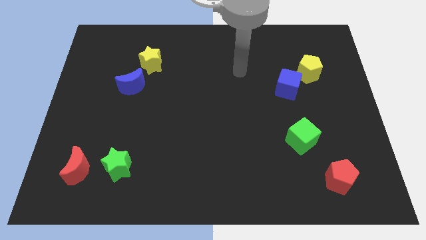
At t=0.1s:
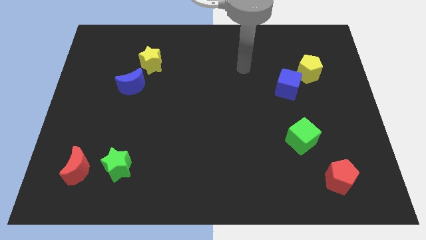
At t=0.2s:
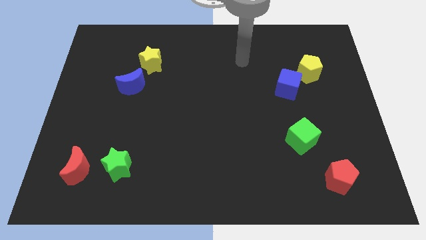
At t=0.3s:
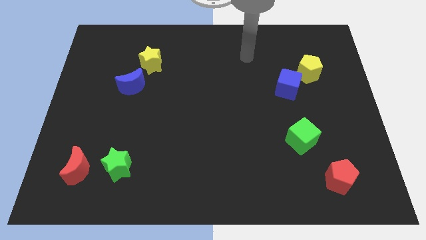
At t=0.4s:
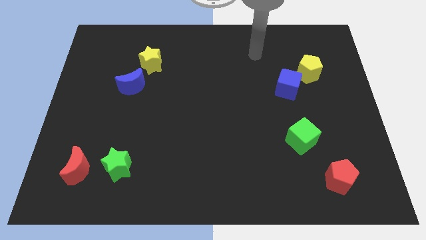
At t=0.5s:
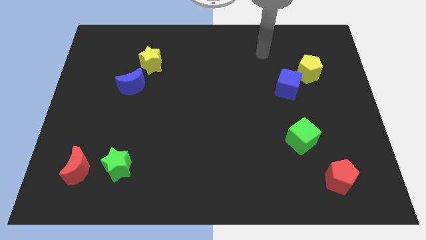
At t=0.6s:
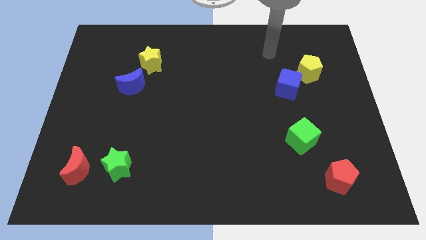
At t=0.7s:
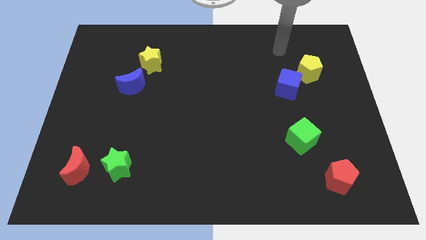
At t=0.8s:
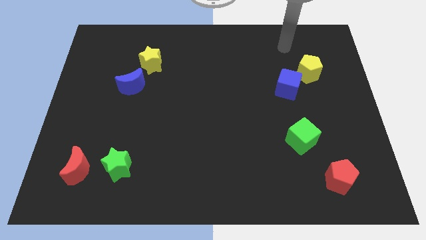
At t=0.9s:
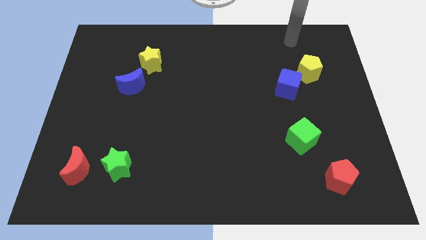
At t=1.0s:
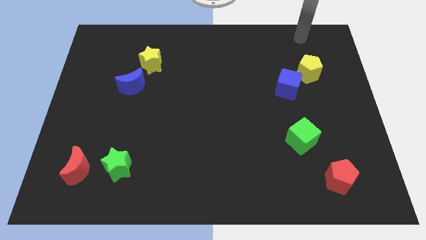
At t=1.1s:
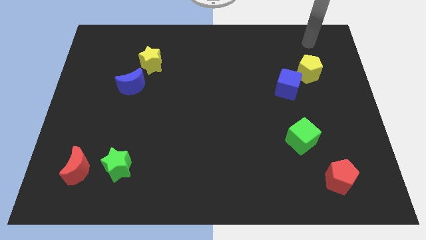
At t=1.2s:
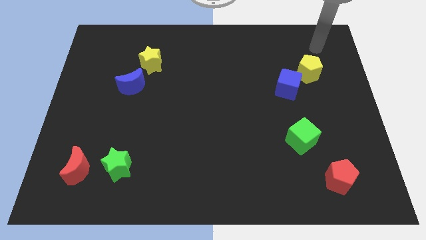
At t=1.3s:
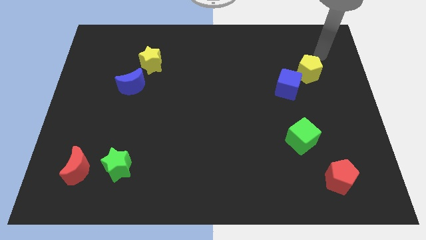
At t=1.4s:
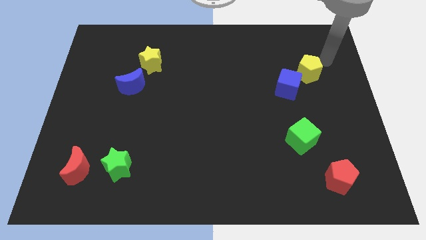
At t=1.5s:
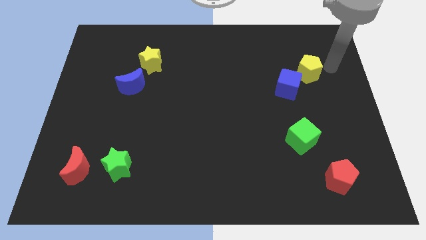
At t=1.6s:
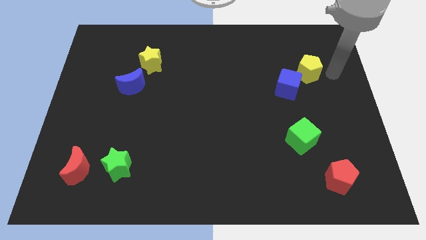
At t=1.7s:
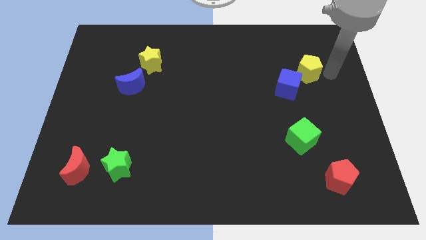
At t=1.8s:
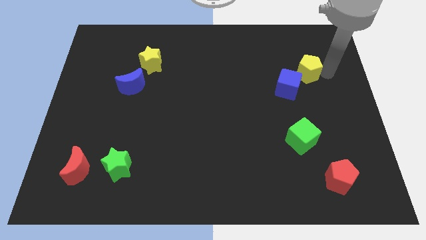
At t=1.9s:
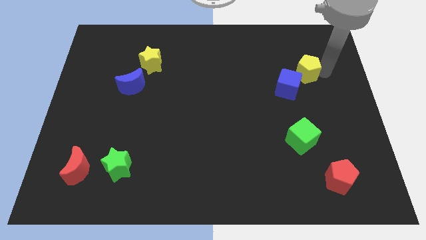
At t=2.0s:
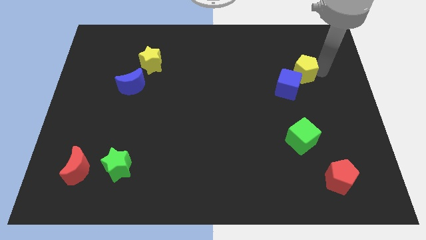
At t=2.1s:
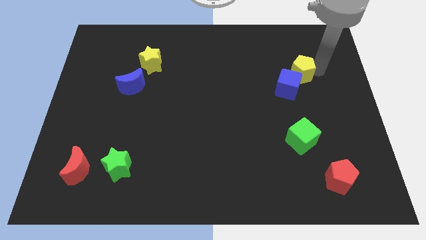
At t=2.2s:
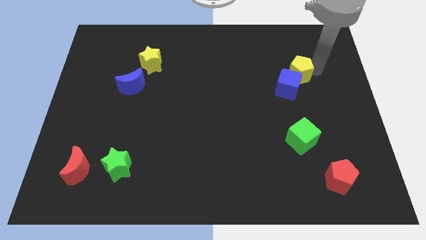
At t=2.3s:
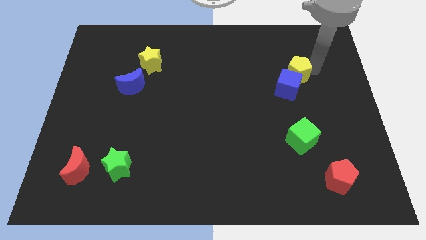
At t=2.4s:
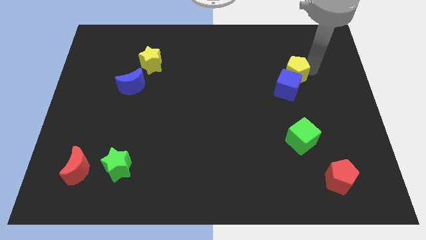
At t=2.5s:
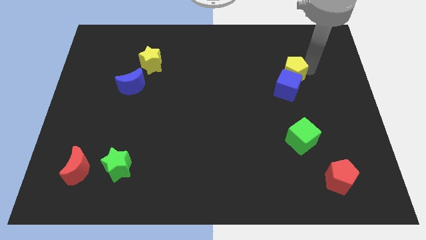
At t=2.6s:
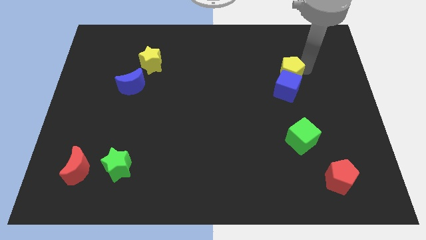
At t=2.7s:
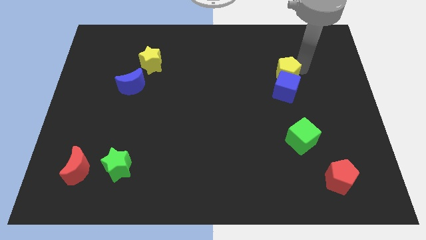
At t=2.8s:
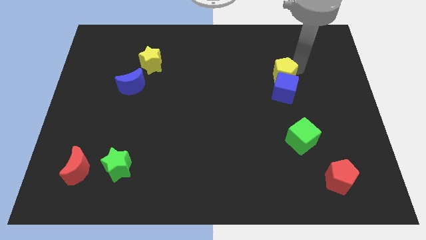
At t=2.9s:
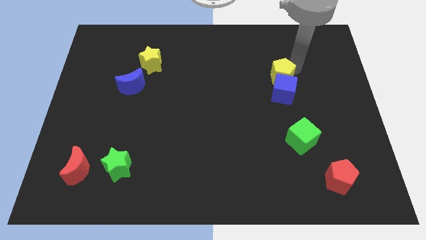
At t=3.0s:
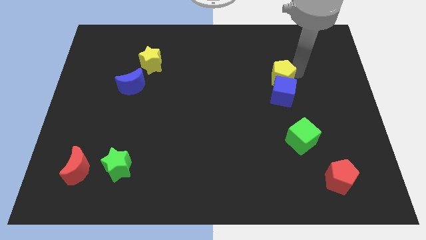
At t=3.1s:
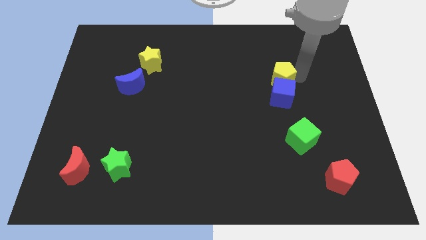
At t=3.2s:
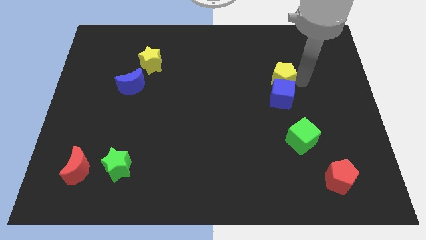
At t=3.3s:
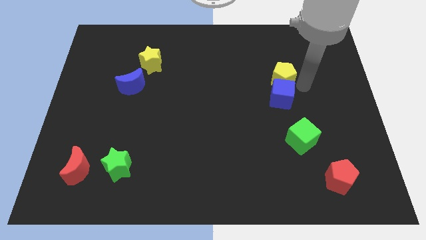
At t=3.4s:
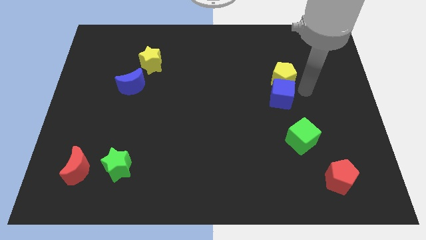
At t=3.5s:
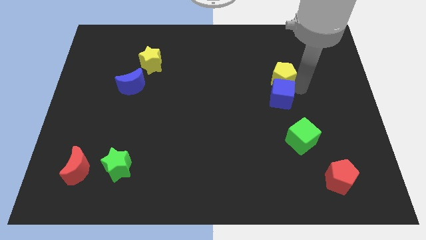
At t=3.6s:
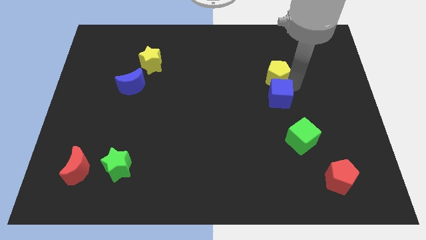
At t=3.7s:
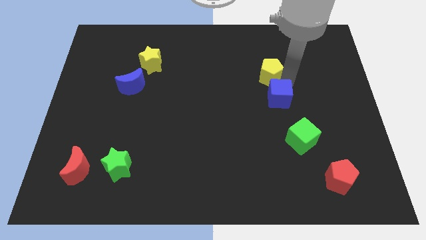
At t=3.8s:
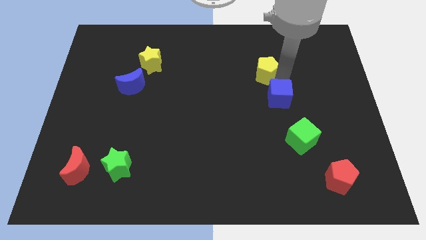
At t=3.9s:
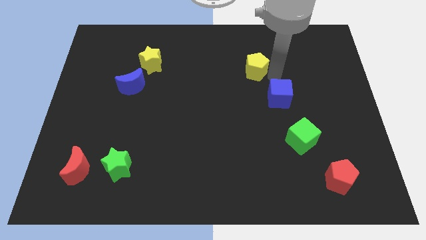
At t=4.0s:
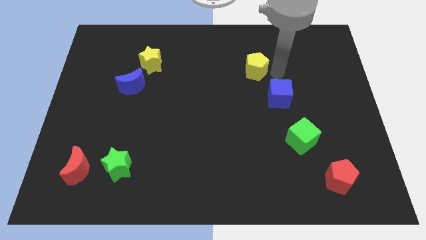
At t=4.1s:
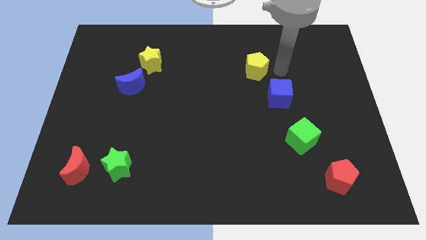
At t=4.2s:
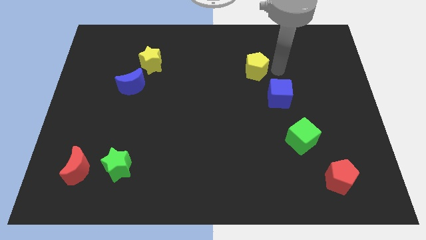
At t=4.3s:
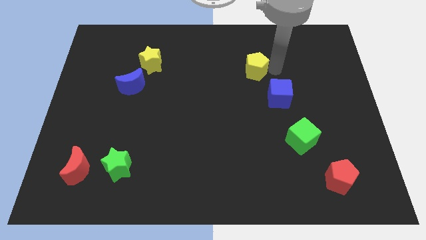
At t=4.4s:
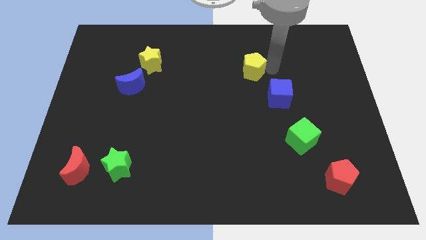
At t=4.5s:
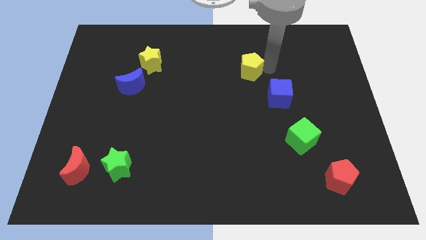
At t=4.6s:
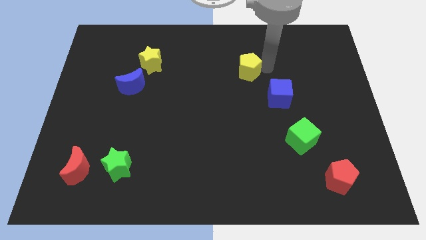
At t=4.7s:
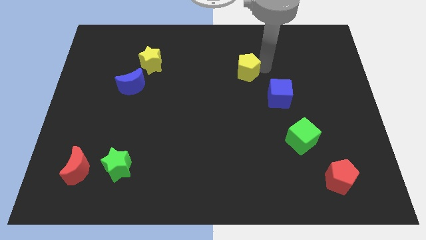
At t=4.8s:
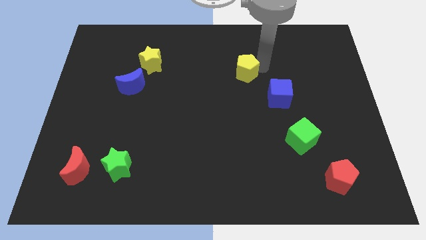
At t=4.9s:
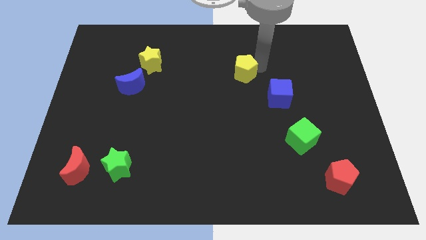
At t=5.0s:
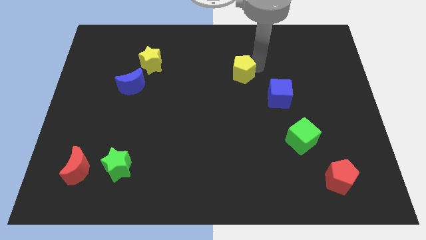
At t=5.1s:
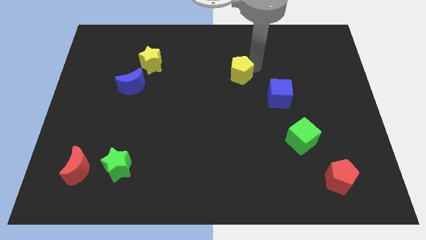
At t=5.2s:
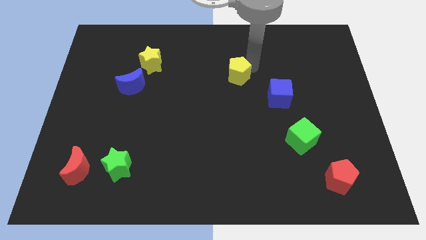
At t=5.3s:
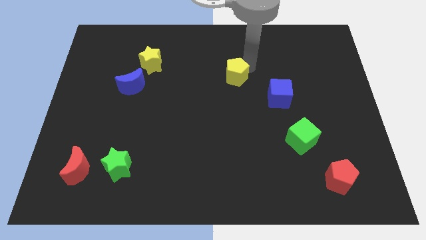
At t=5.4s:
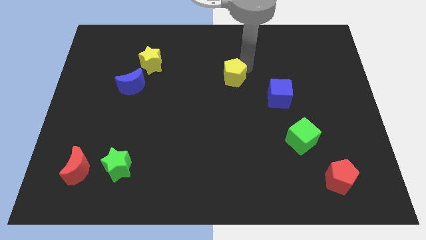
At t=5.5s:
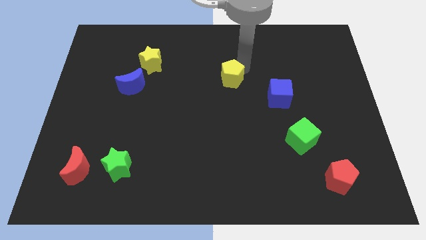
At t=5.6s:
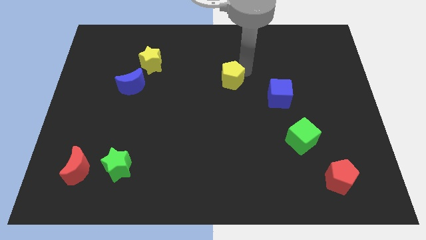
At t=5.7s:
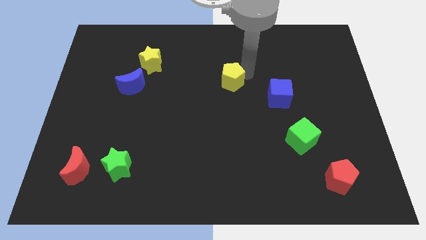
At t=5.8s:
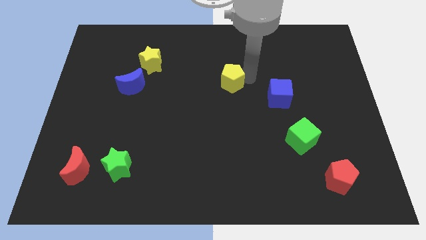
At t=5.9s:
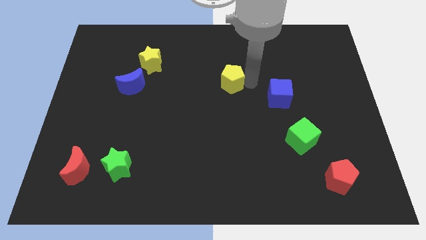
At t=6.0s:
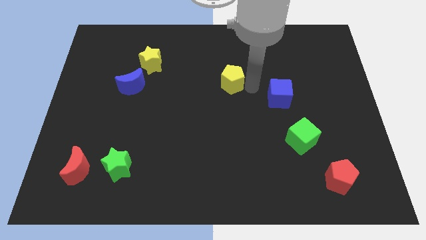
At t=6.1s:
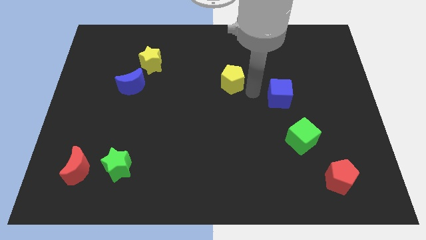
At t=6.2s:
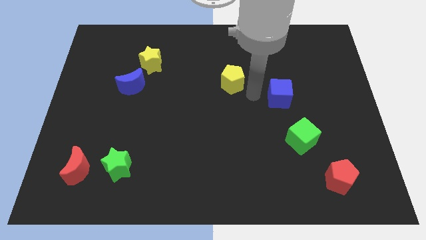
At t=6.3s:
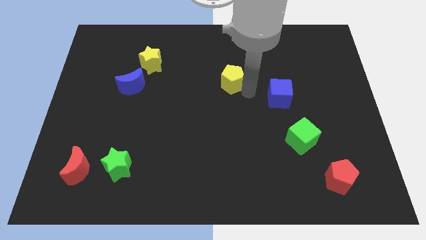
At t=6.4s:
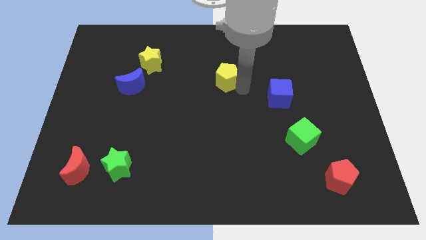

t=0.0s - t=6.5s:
move the yellow pentagon left

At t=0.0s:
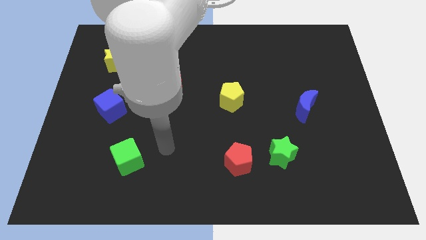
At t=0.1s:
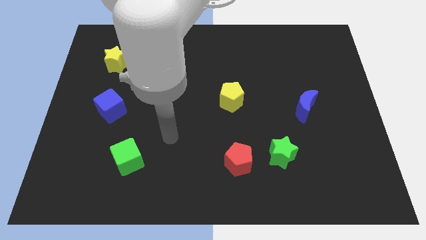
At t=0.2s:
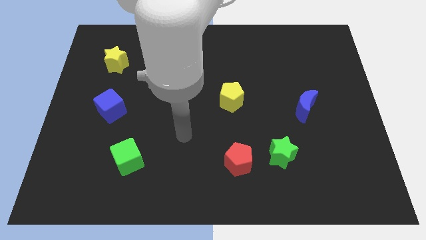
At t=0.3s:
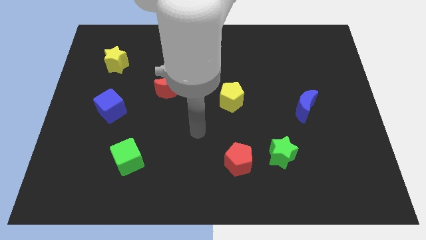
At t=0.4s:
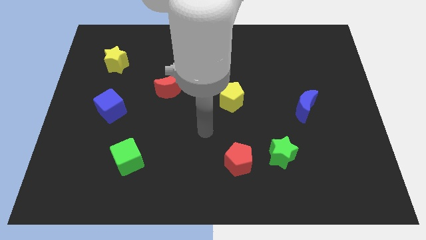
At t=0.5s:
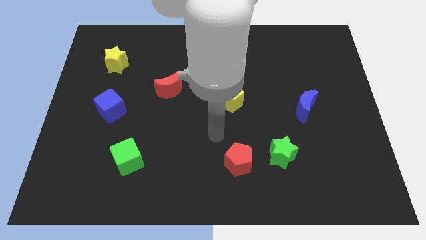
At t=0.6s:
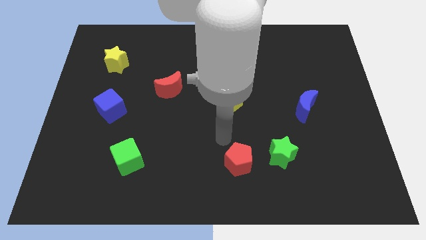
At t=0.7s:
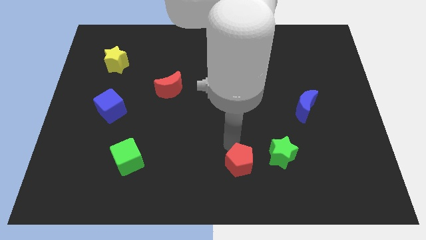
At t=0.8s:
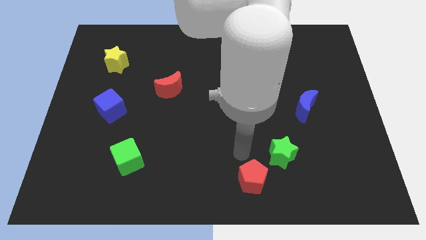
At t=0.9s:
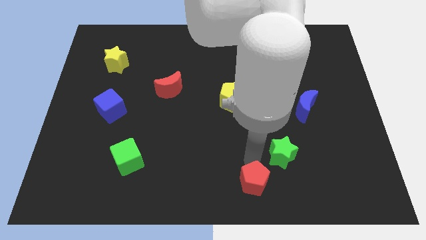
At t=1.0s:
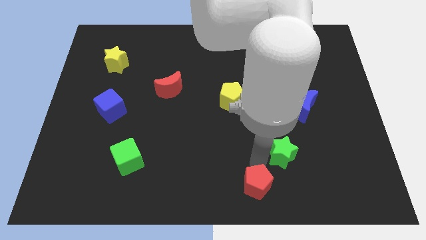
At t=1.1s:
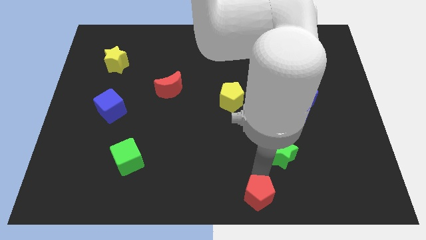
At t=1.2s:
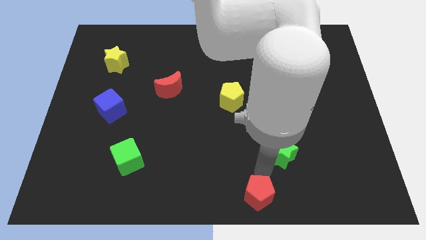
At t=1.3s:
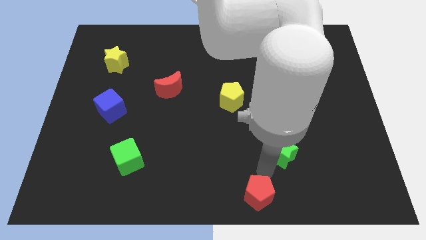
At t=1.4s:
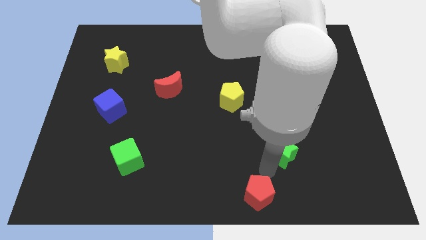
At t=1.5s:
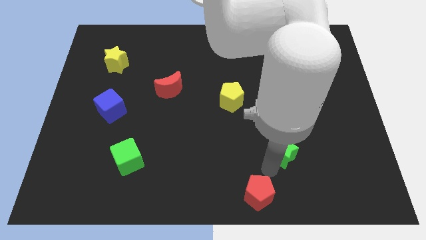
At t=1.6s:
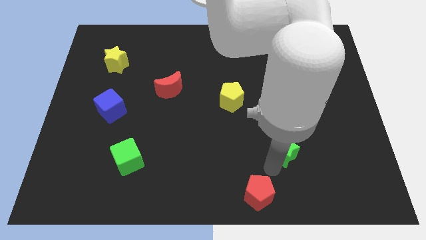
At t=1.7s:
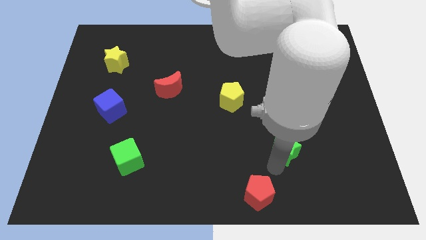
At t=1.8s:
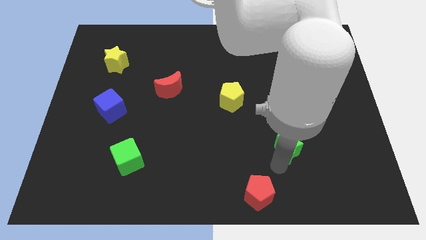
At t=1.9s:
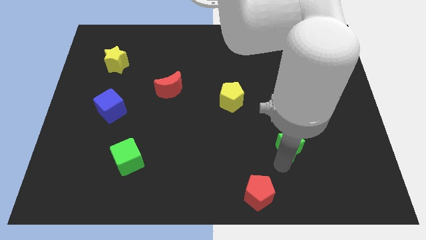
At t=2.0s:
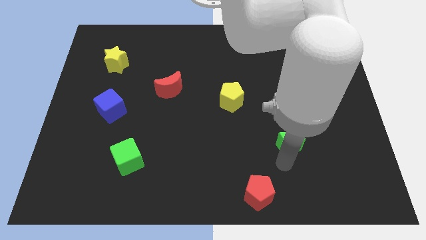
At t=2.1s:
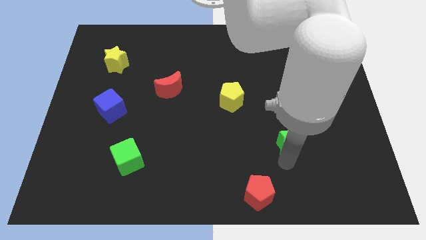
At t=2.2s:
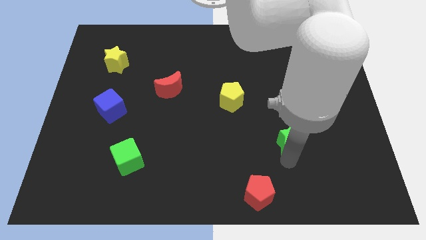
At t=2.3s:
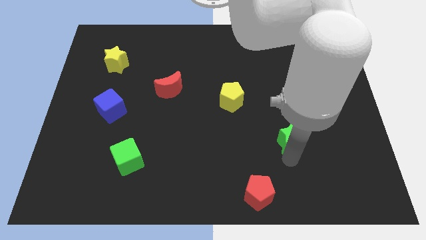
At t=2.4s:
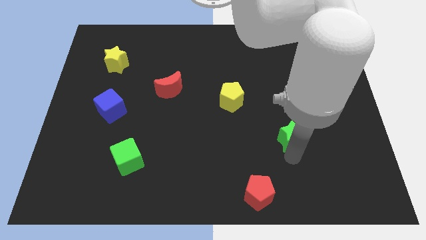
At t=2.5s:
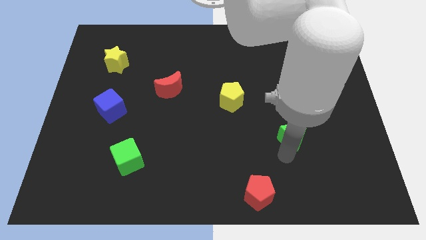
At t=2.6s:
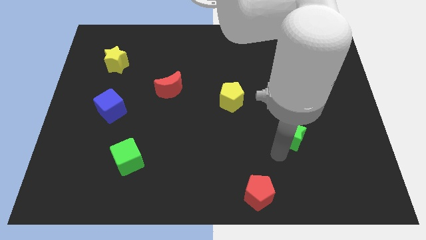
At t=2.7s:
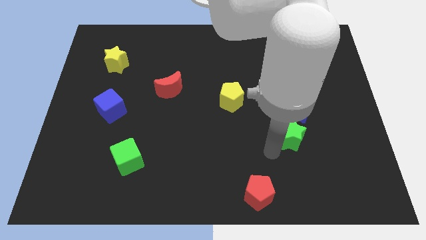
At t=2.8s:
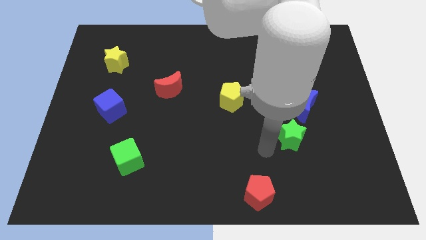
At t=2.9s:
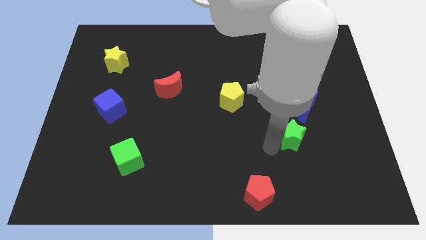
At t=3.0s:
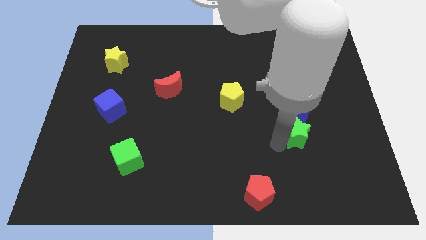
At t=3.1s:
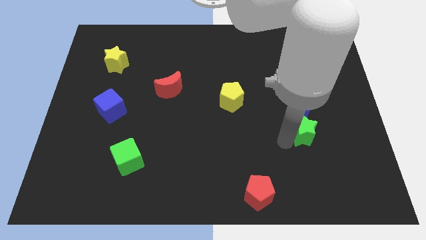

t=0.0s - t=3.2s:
move the green star upwards and to the right slightly
